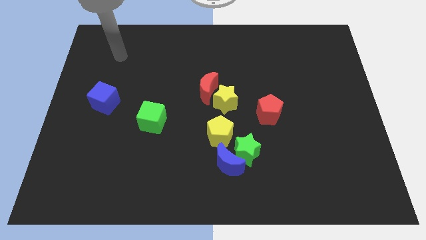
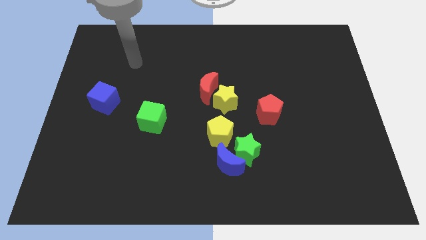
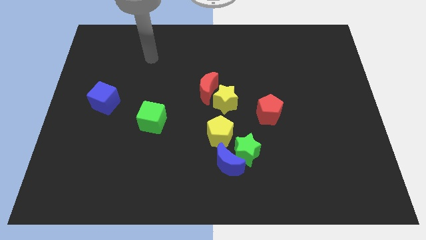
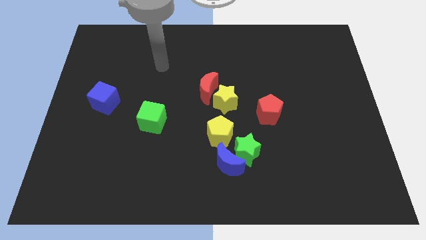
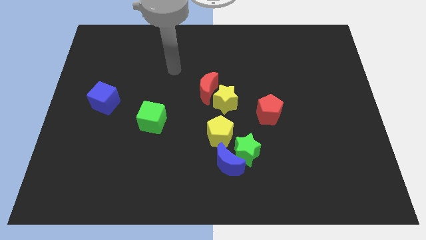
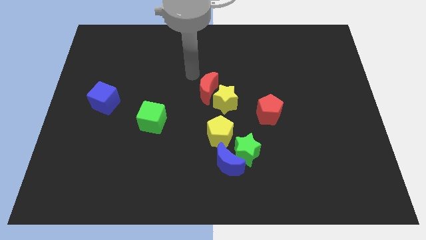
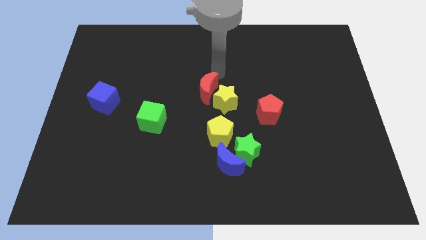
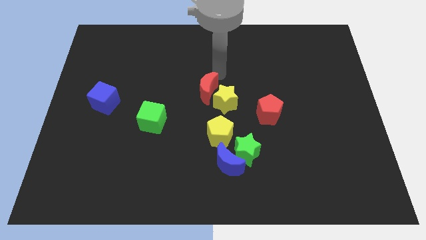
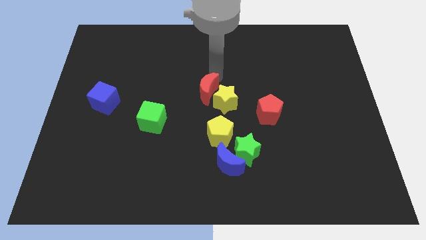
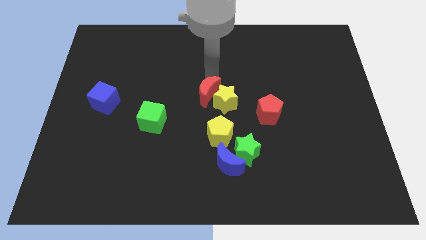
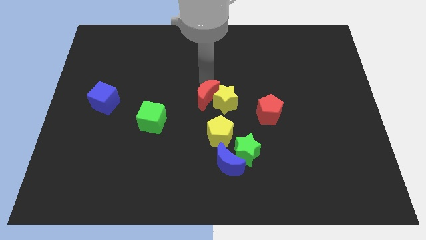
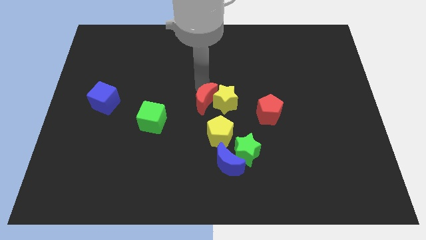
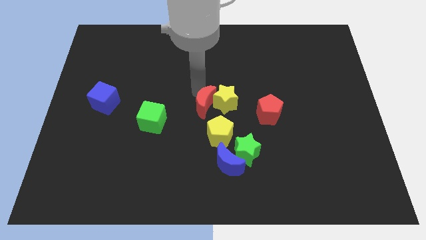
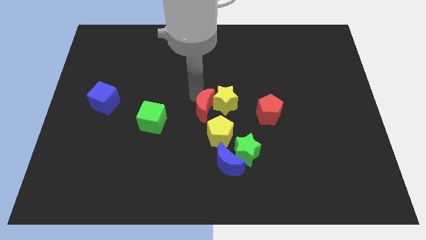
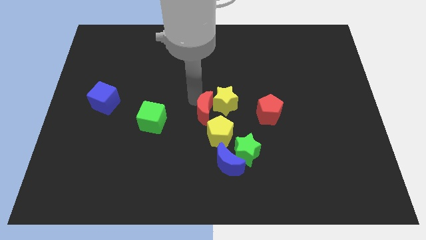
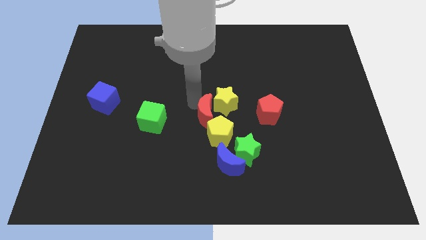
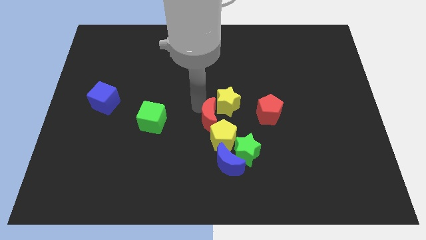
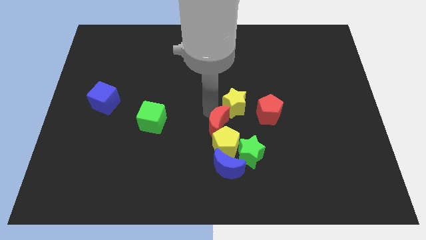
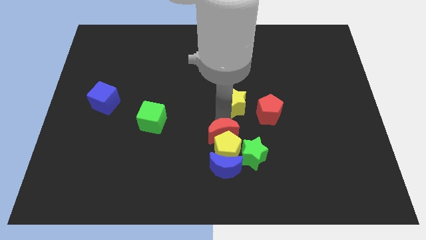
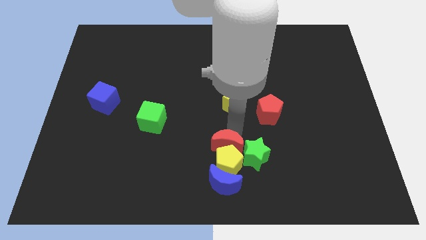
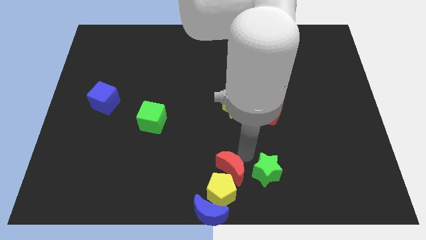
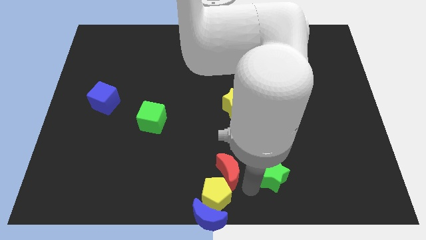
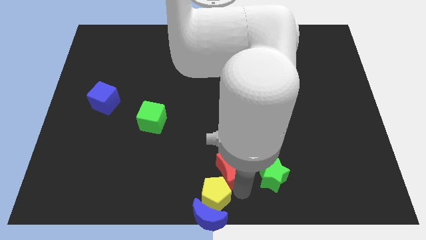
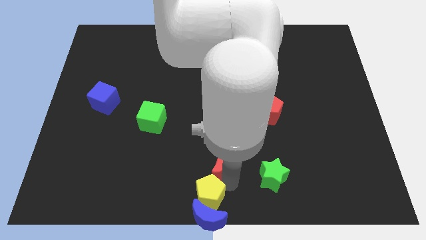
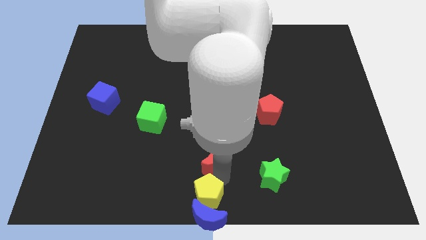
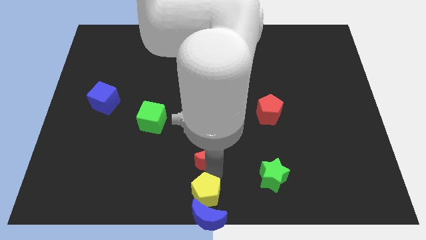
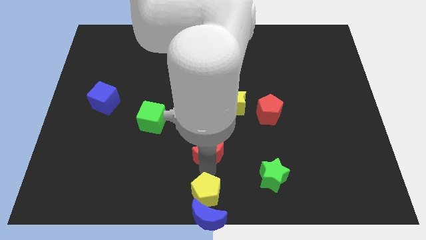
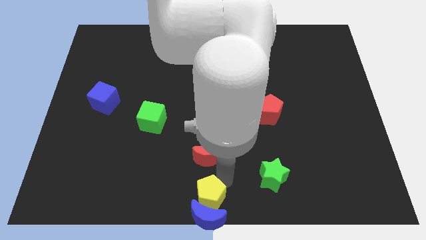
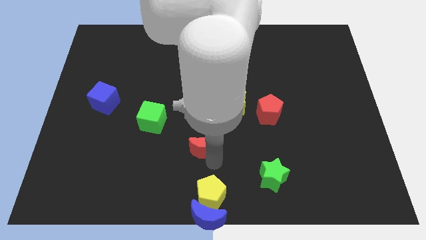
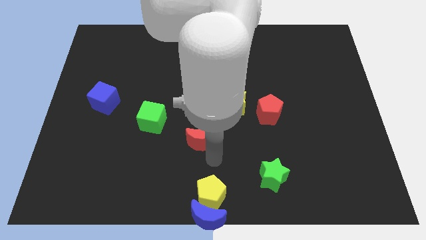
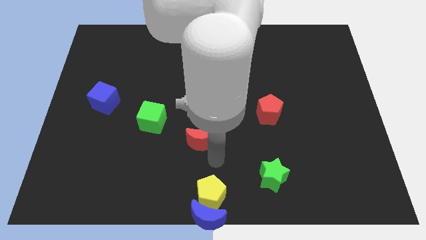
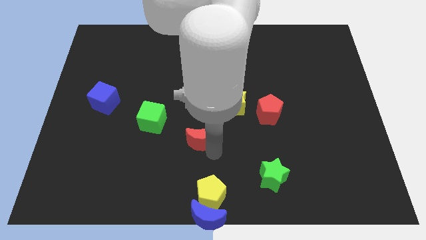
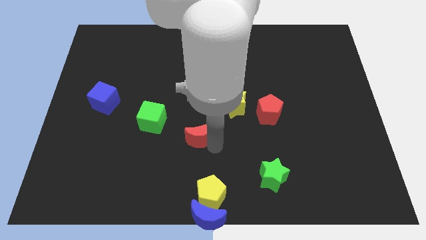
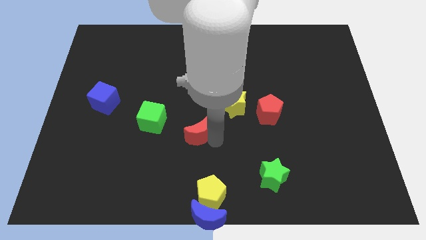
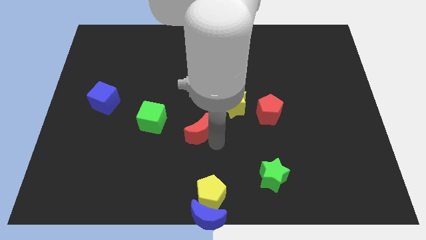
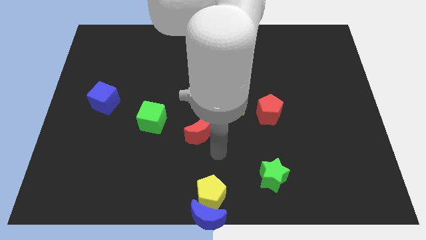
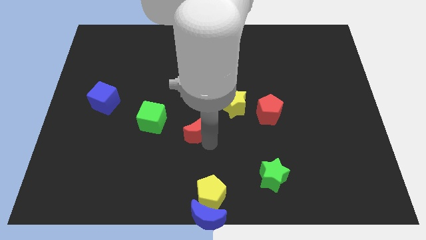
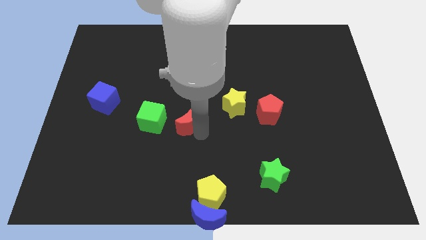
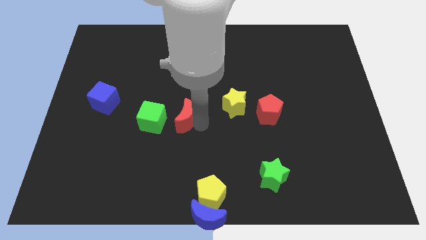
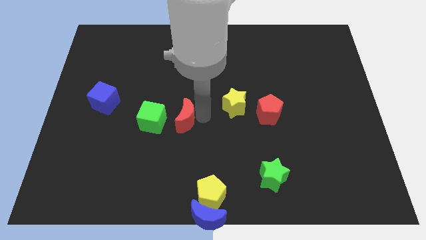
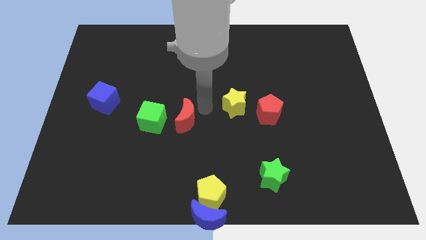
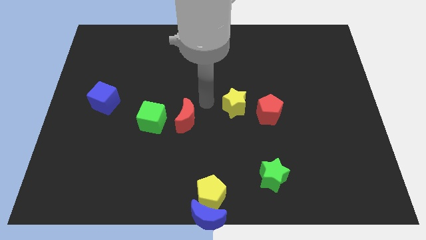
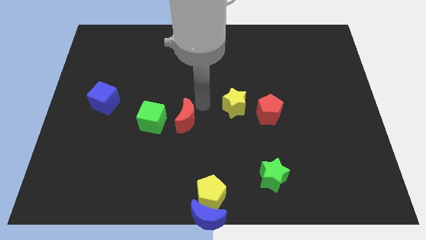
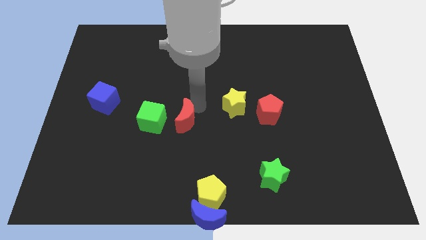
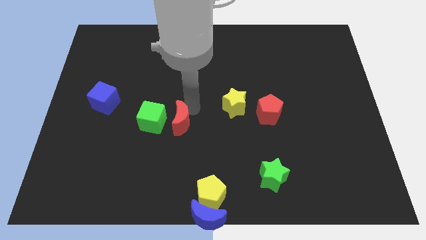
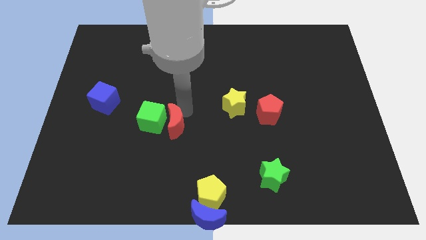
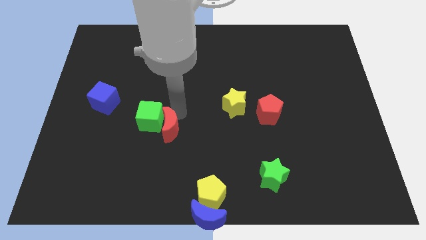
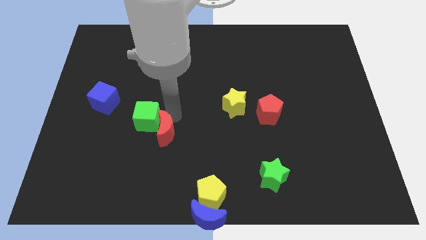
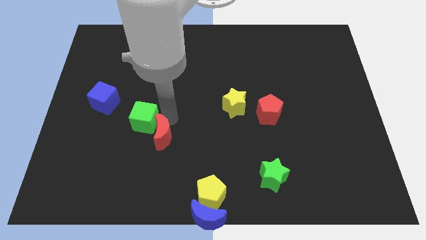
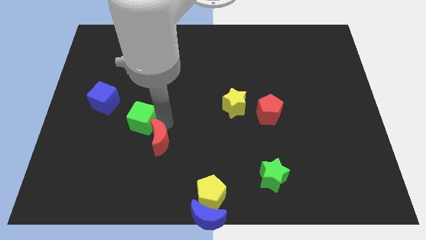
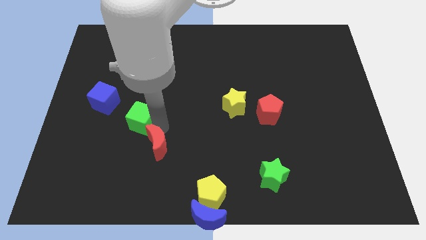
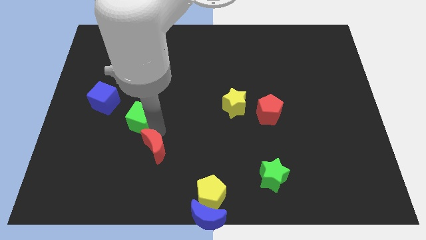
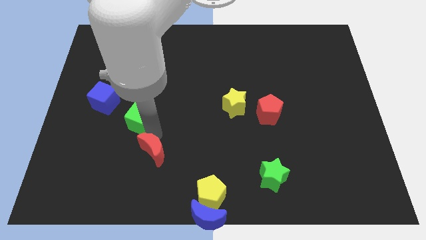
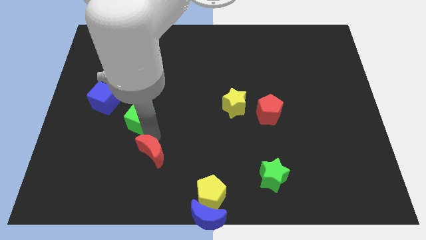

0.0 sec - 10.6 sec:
move the red moon down and then left

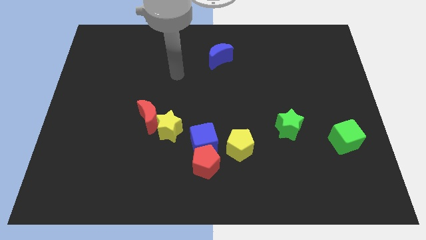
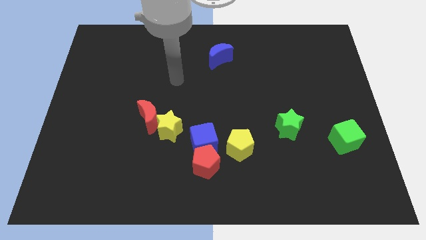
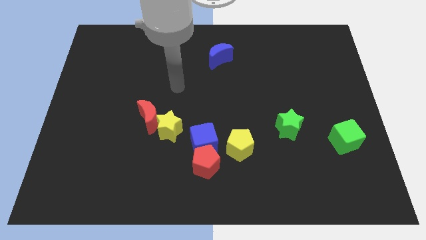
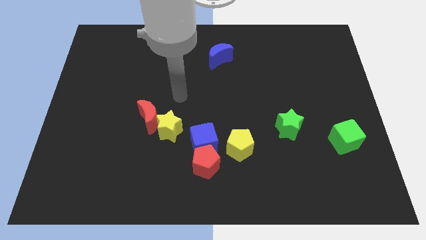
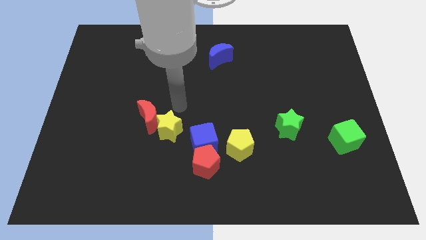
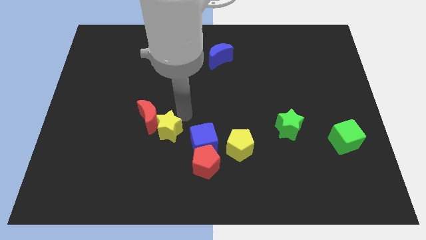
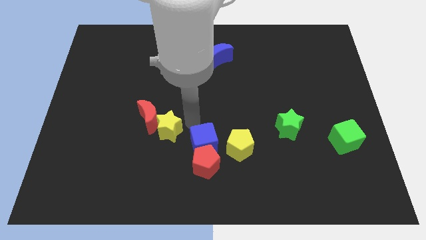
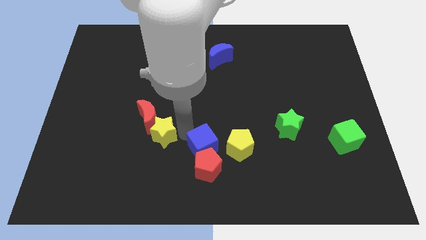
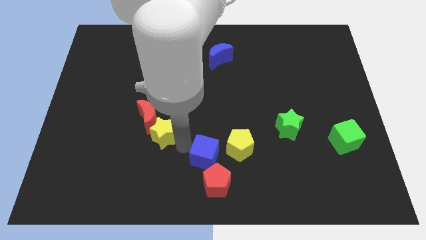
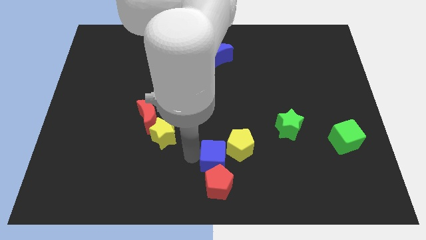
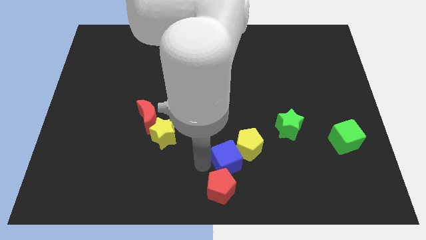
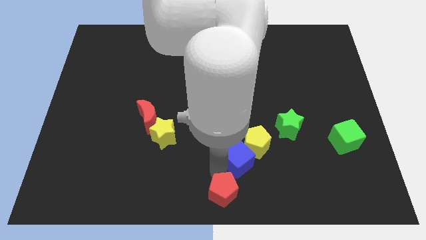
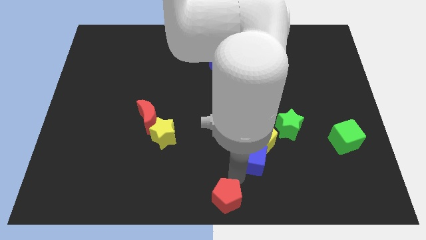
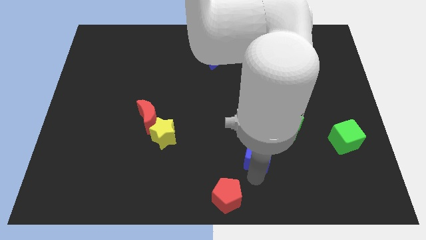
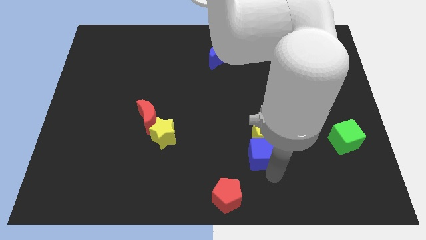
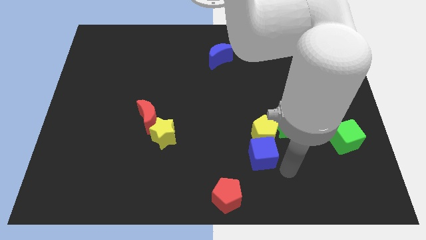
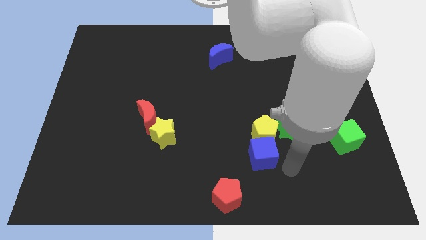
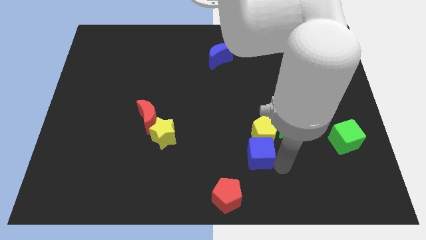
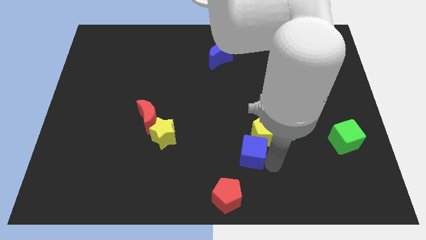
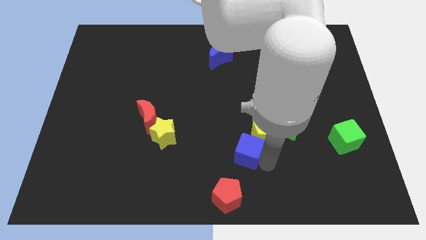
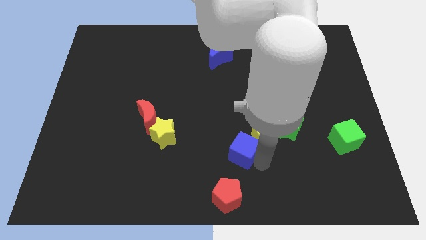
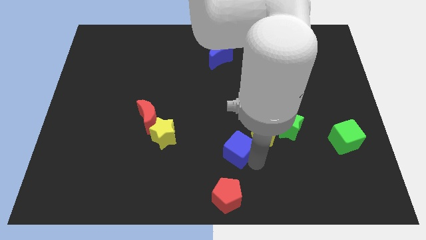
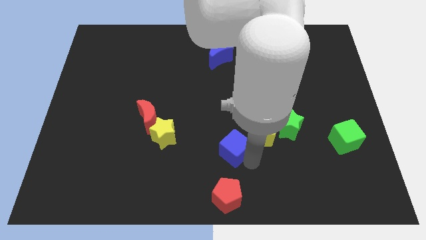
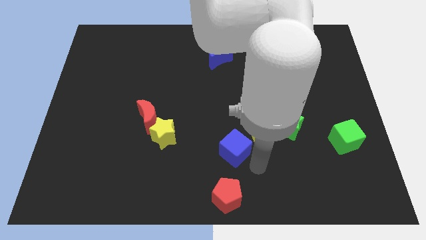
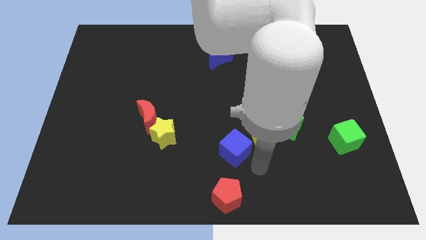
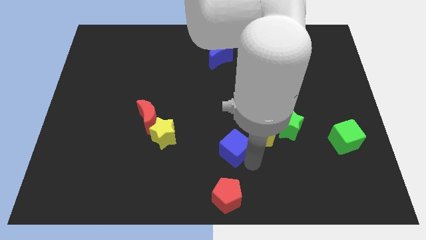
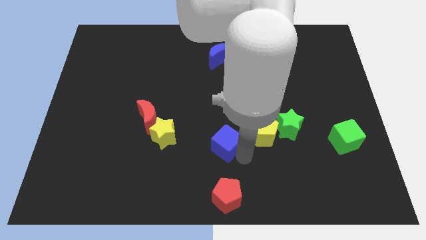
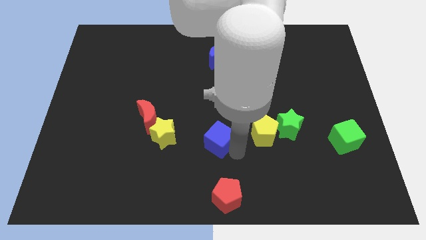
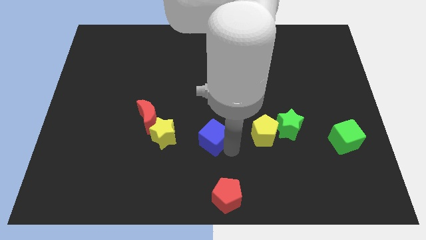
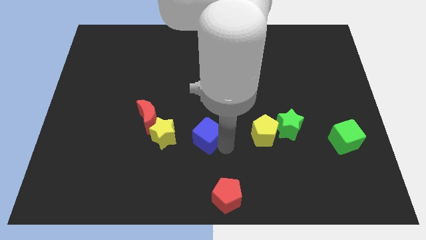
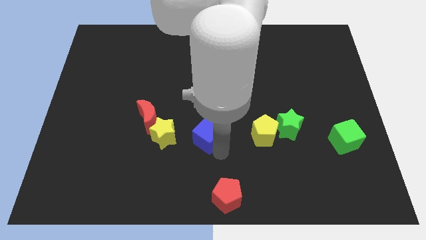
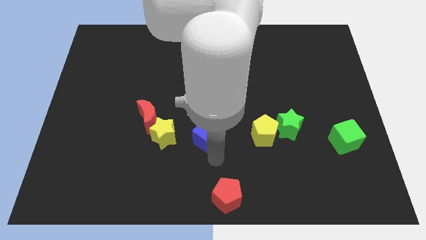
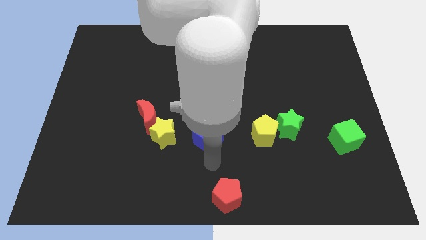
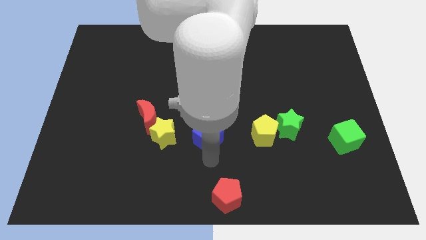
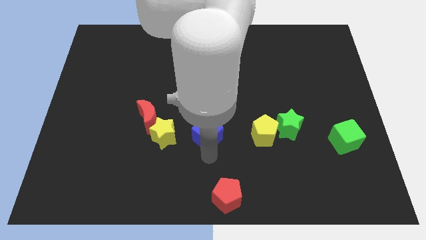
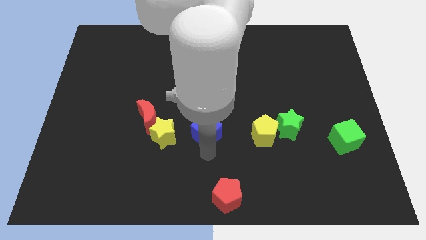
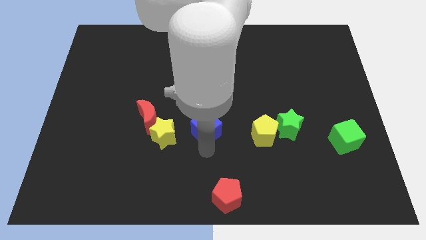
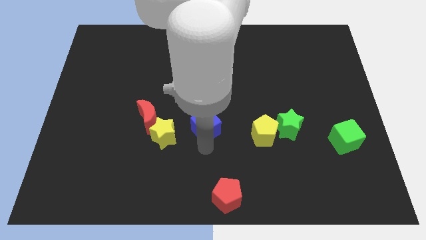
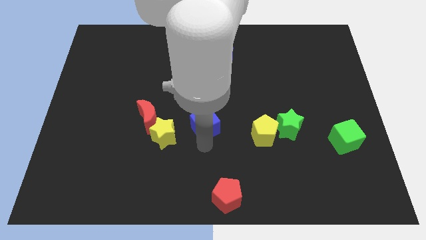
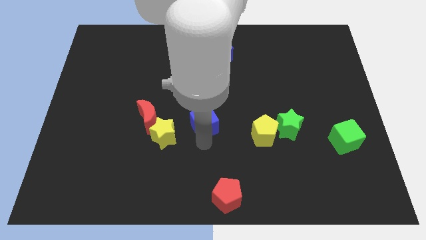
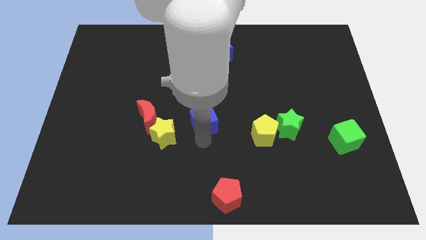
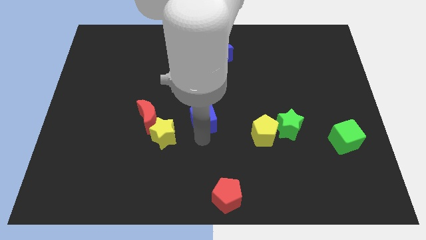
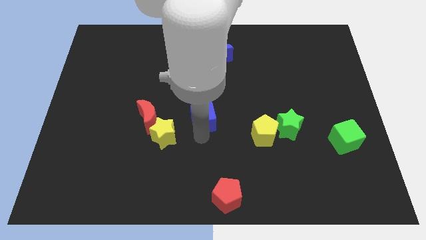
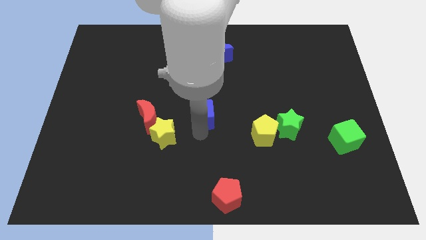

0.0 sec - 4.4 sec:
move the blue cube up a little
